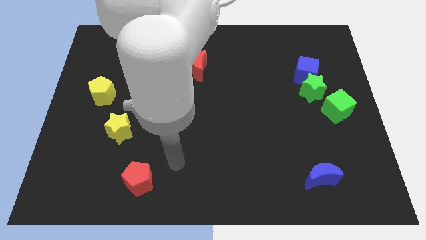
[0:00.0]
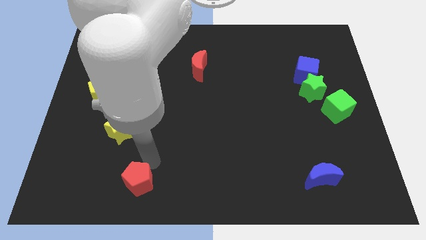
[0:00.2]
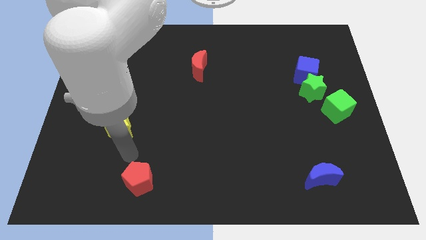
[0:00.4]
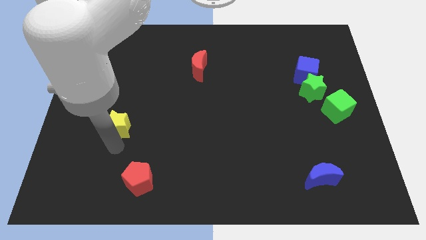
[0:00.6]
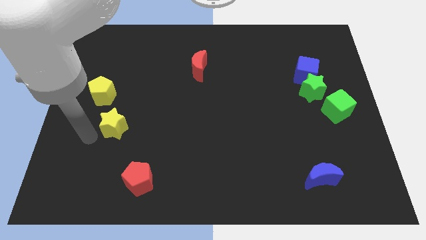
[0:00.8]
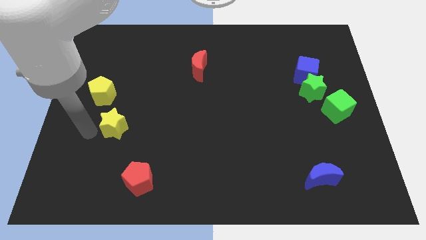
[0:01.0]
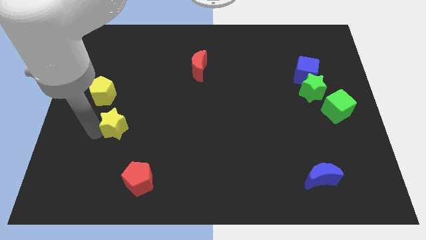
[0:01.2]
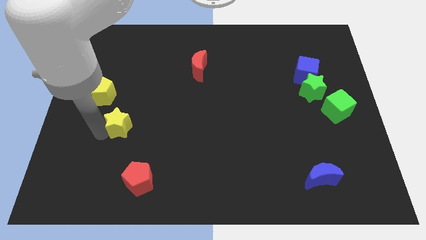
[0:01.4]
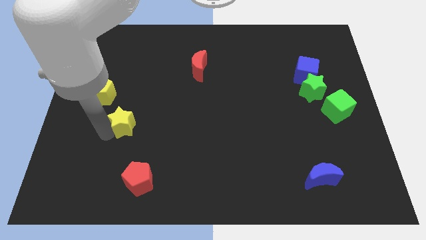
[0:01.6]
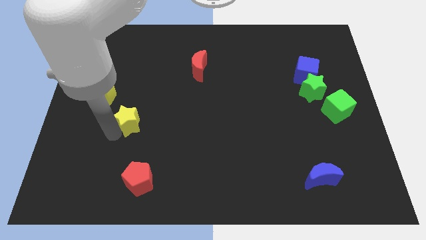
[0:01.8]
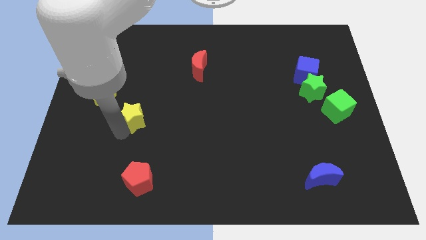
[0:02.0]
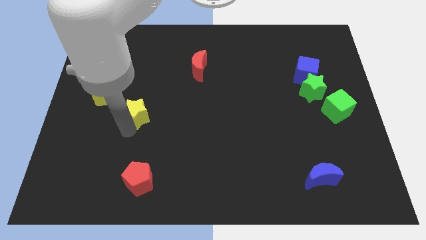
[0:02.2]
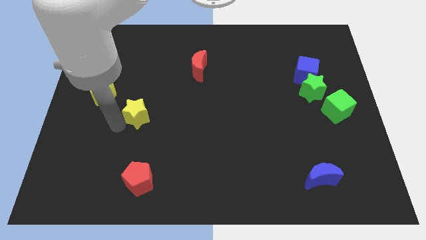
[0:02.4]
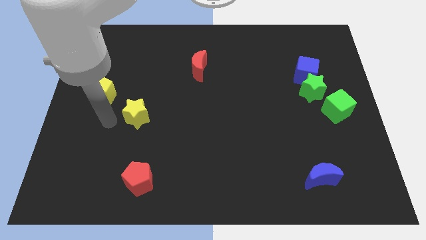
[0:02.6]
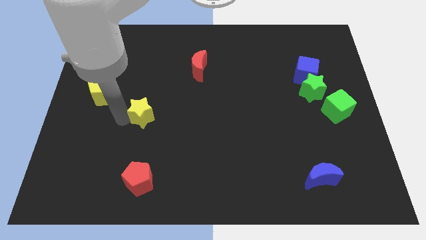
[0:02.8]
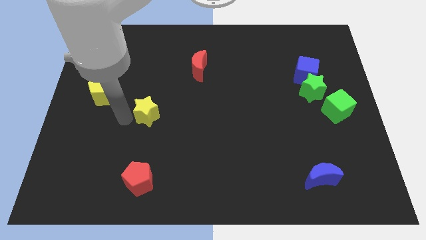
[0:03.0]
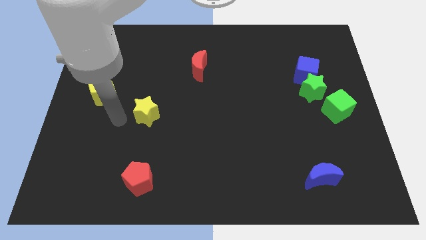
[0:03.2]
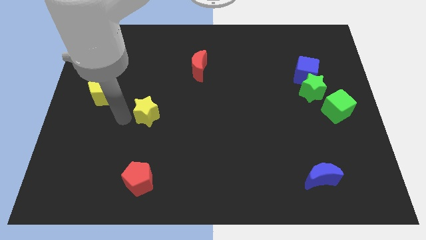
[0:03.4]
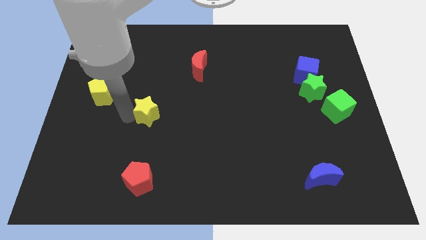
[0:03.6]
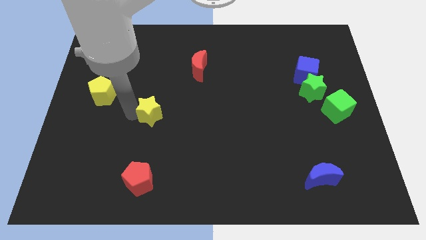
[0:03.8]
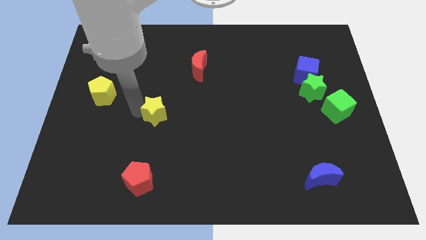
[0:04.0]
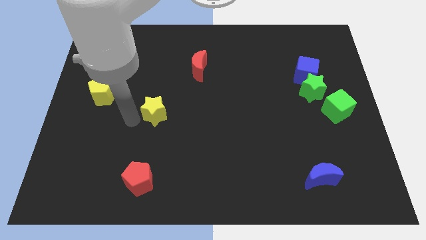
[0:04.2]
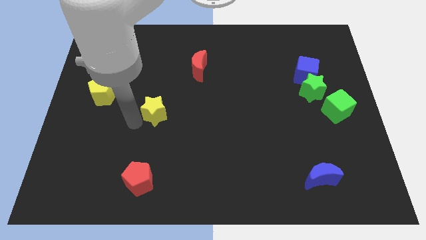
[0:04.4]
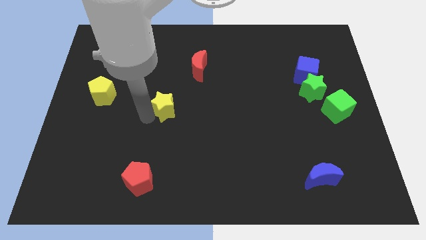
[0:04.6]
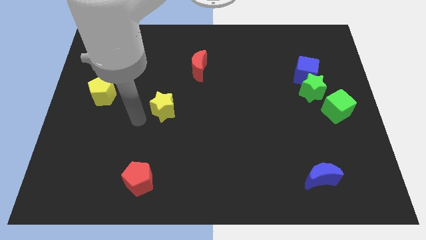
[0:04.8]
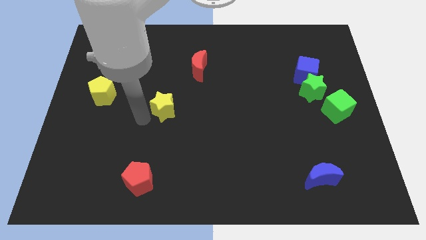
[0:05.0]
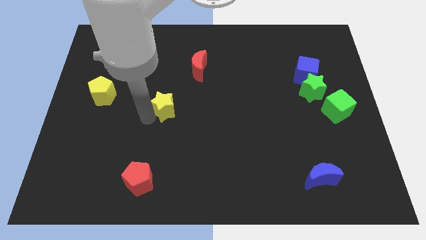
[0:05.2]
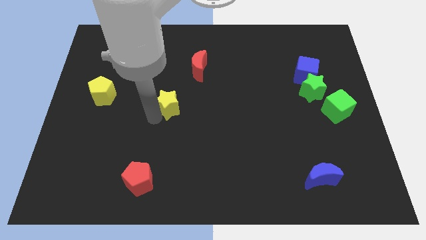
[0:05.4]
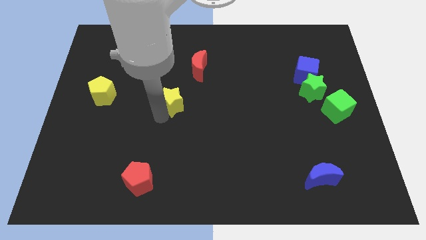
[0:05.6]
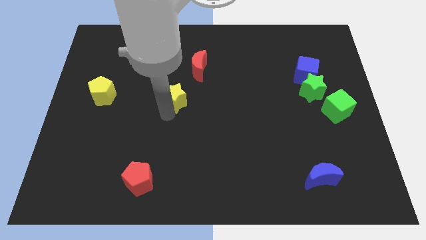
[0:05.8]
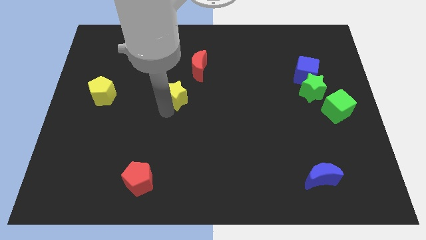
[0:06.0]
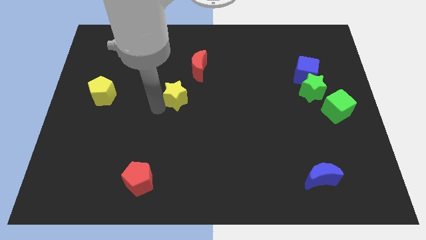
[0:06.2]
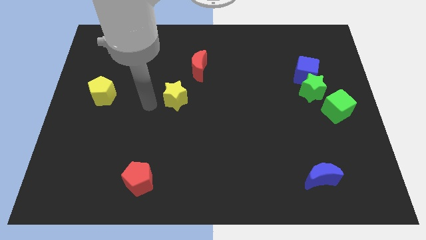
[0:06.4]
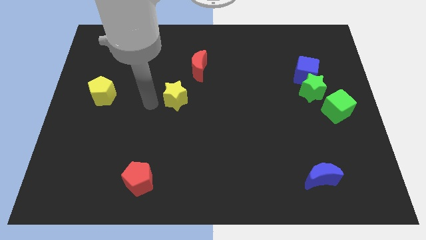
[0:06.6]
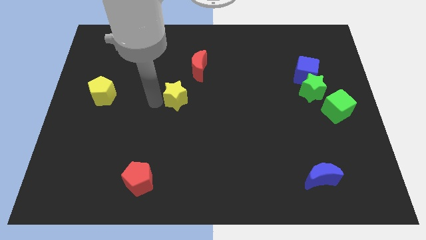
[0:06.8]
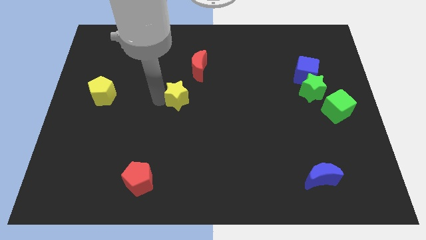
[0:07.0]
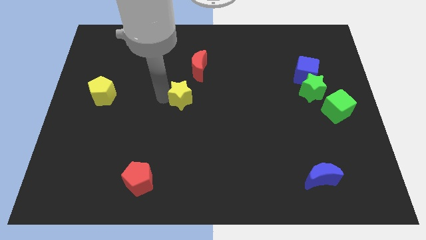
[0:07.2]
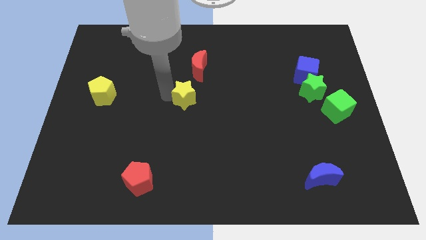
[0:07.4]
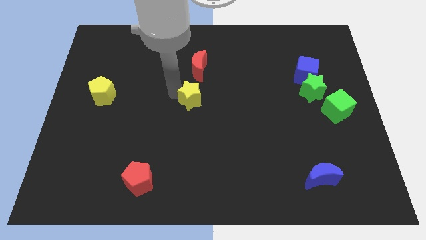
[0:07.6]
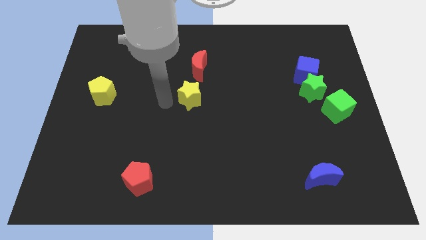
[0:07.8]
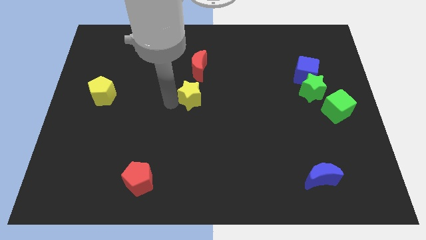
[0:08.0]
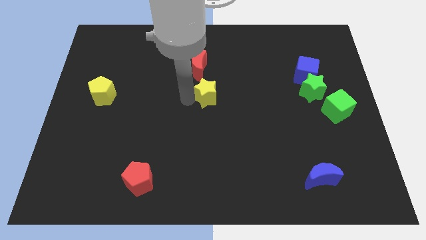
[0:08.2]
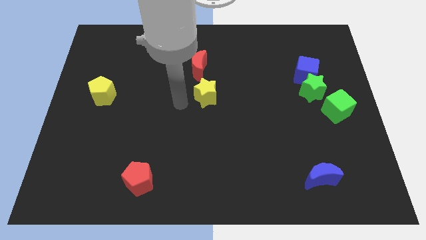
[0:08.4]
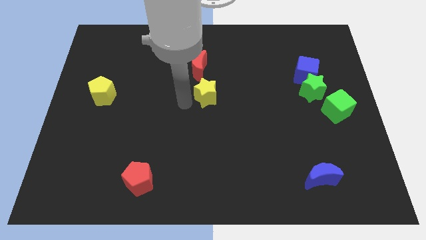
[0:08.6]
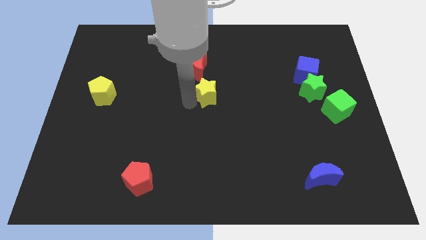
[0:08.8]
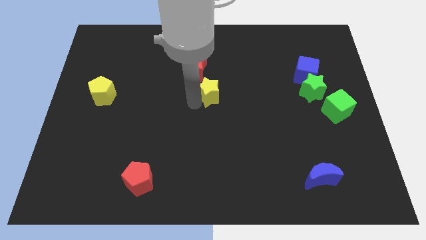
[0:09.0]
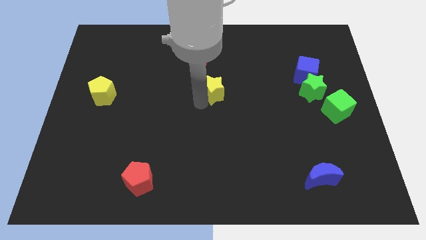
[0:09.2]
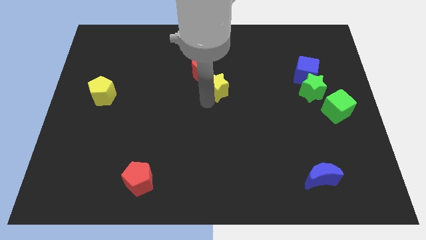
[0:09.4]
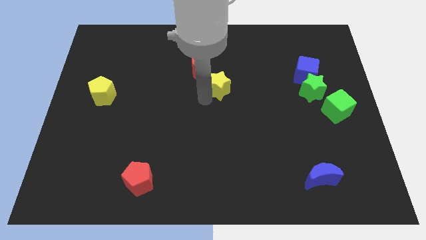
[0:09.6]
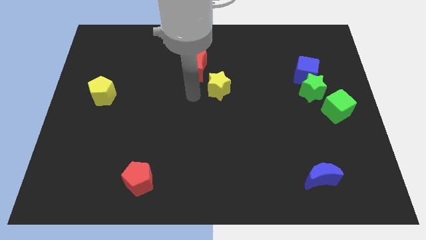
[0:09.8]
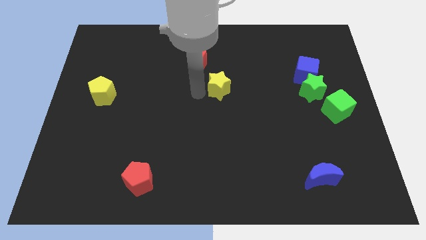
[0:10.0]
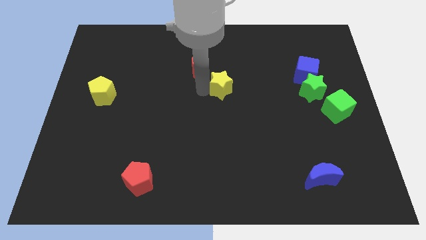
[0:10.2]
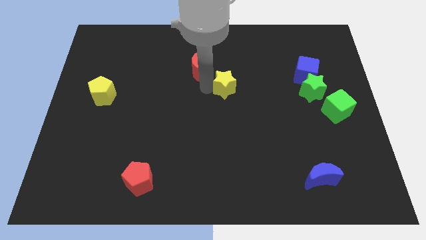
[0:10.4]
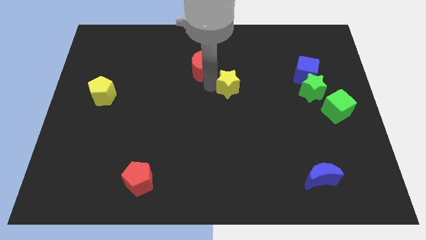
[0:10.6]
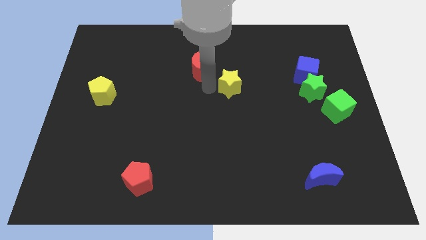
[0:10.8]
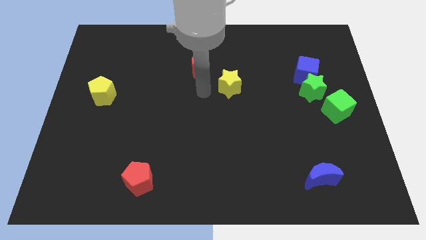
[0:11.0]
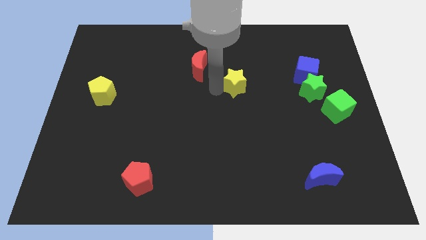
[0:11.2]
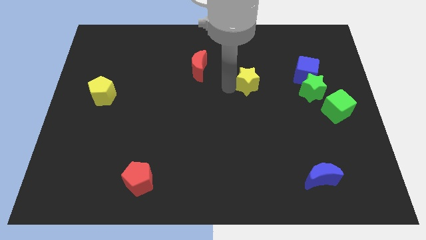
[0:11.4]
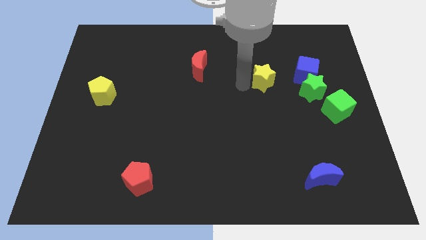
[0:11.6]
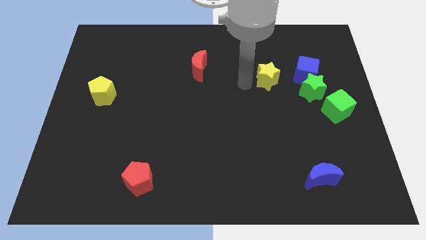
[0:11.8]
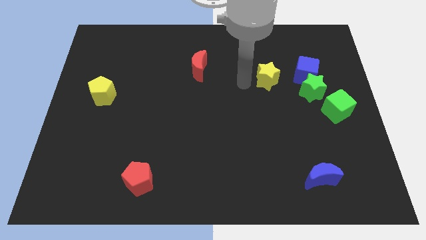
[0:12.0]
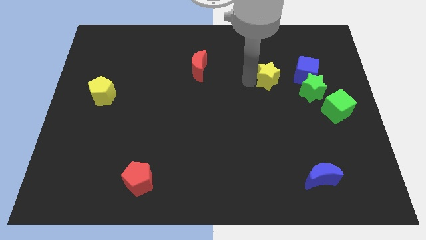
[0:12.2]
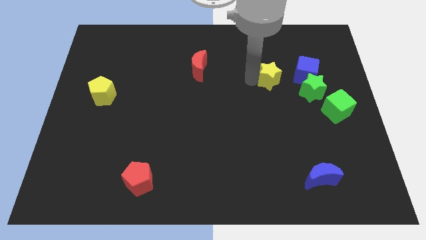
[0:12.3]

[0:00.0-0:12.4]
put the yellow star diagonally up and to the left of the green star

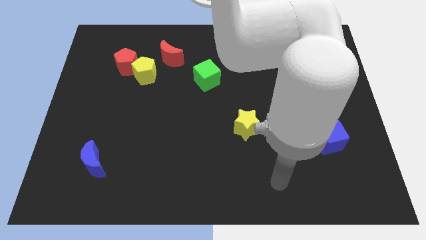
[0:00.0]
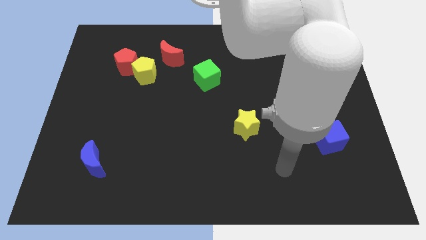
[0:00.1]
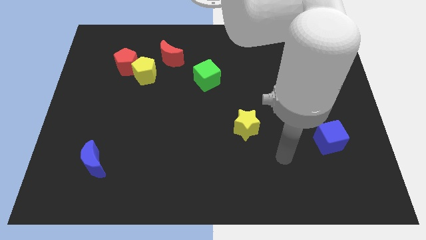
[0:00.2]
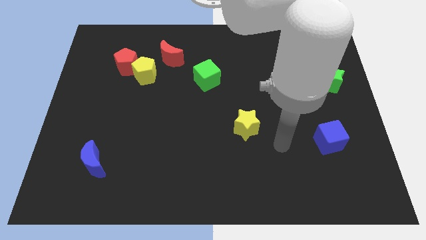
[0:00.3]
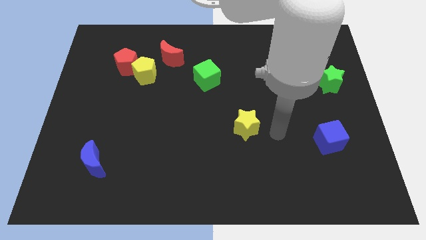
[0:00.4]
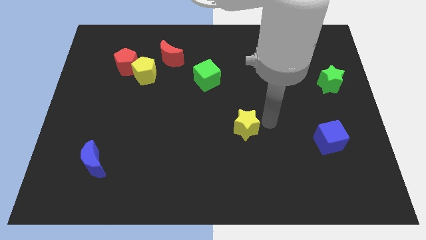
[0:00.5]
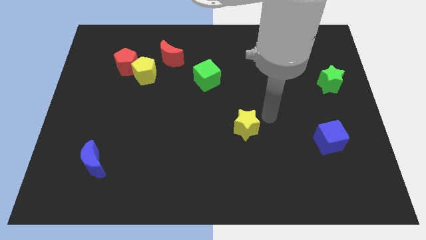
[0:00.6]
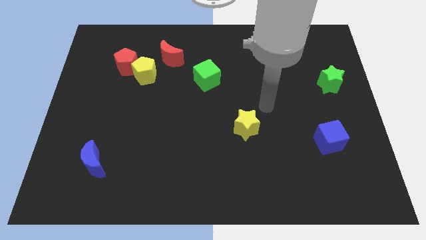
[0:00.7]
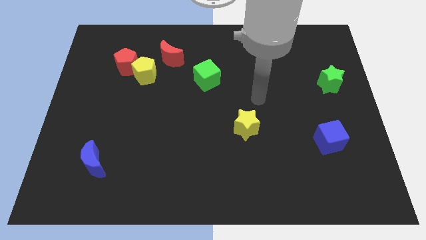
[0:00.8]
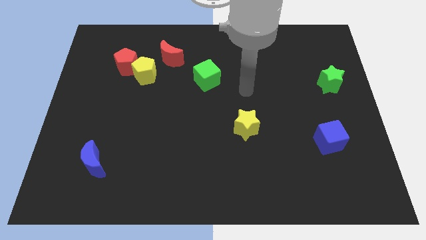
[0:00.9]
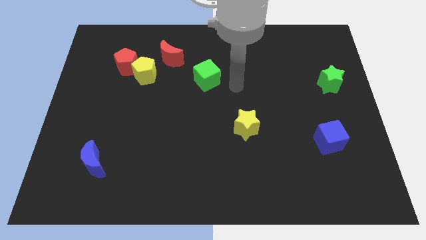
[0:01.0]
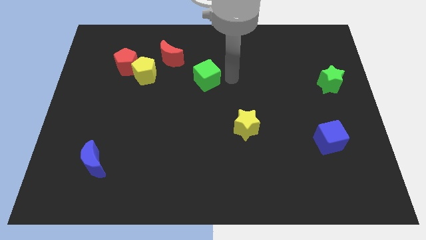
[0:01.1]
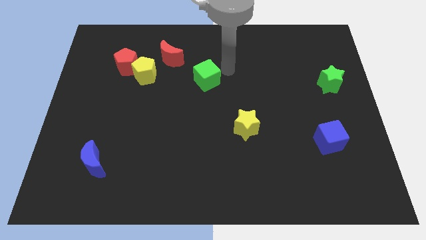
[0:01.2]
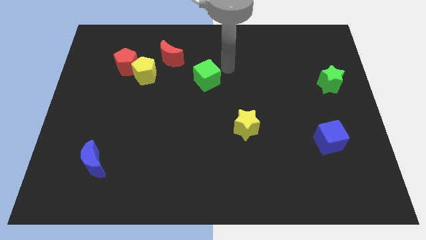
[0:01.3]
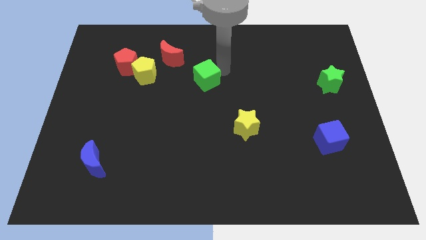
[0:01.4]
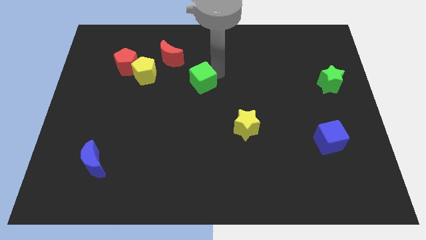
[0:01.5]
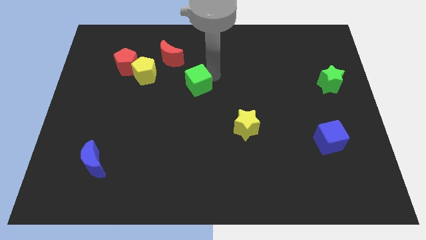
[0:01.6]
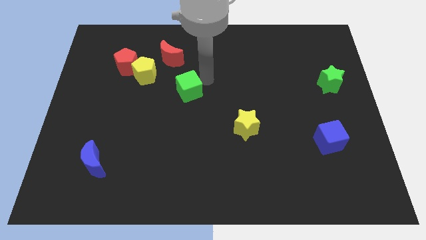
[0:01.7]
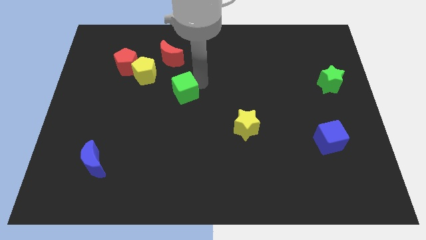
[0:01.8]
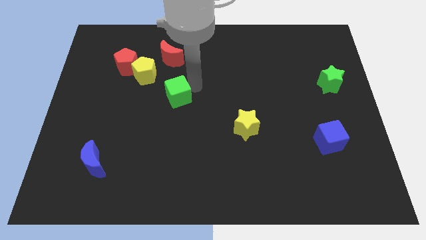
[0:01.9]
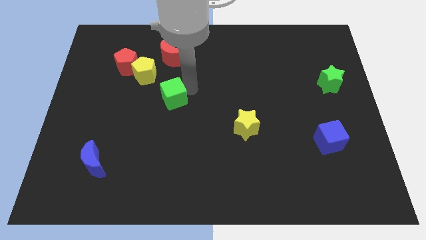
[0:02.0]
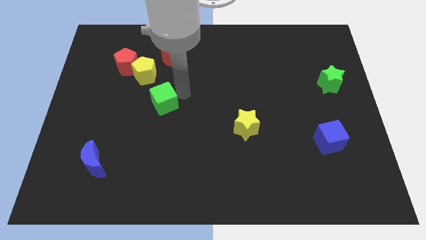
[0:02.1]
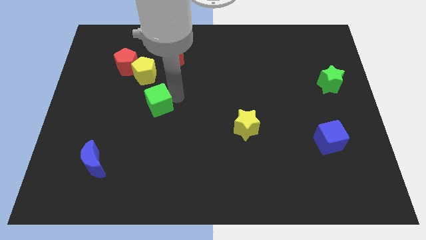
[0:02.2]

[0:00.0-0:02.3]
move the green cube to the bottom of the yellow pentagon
